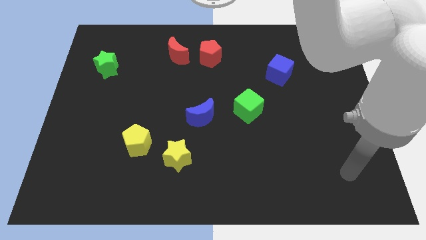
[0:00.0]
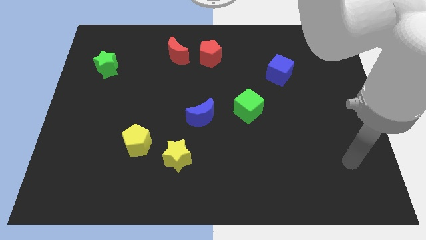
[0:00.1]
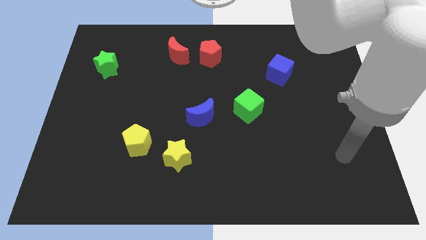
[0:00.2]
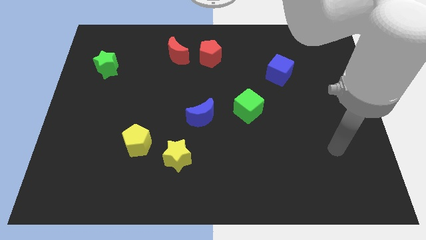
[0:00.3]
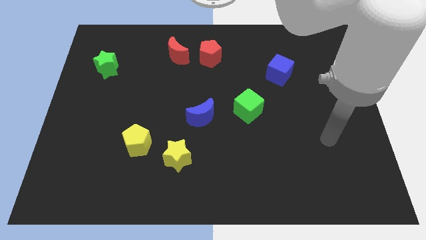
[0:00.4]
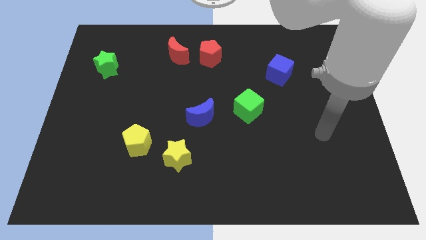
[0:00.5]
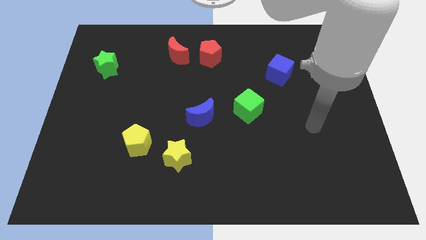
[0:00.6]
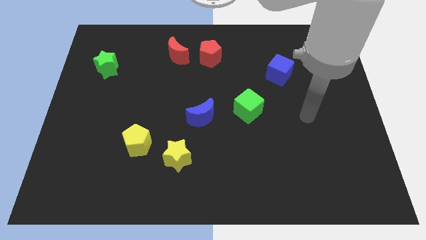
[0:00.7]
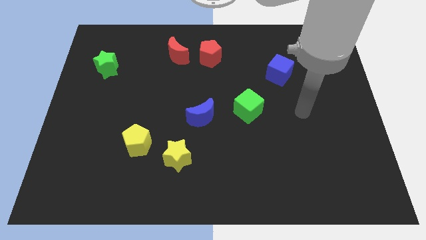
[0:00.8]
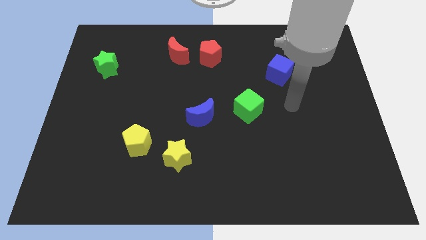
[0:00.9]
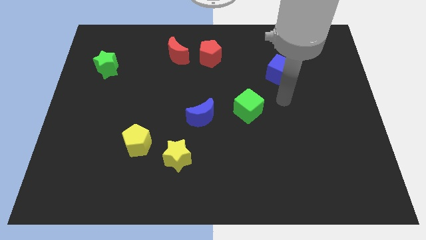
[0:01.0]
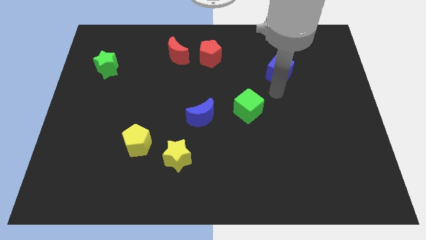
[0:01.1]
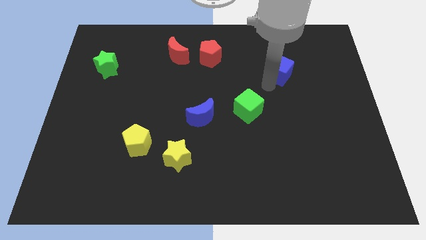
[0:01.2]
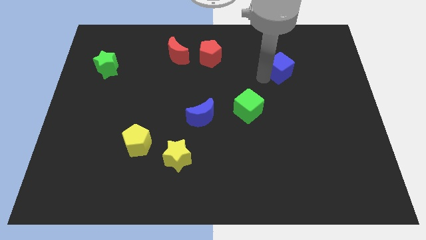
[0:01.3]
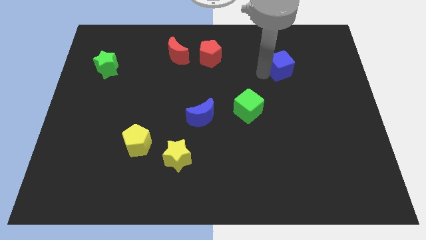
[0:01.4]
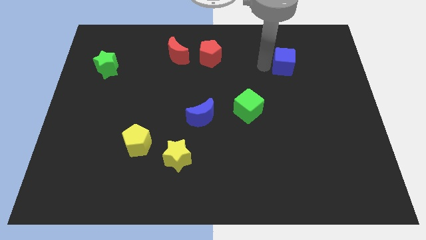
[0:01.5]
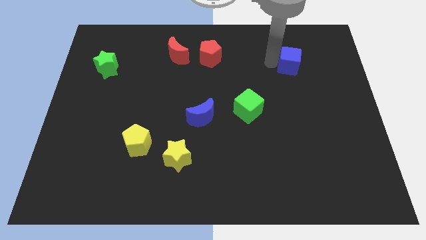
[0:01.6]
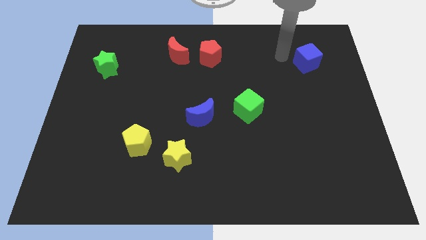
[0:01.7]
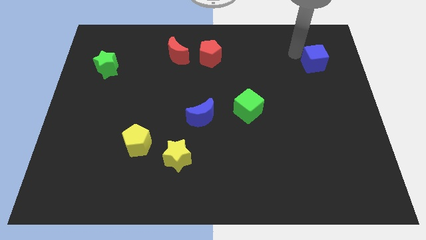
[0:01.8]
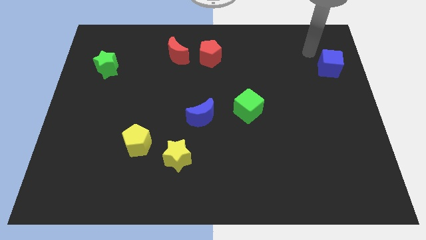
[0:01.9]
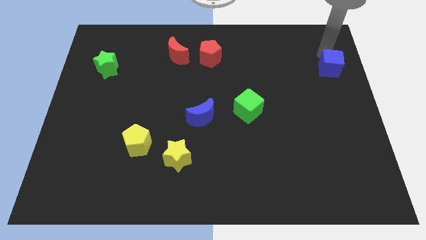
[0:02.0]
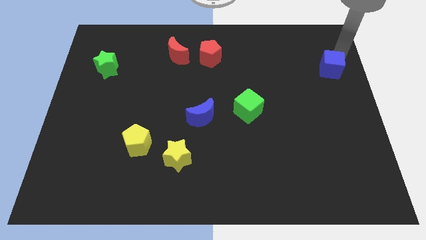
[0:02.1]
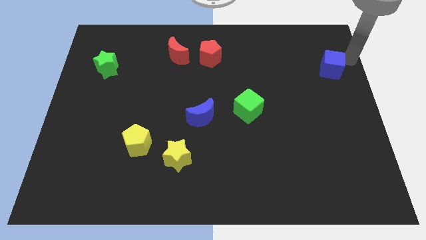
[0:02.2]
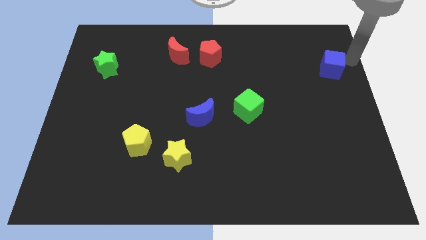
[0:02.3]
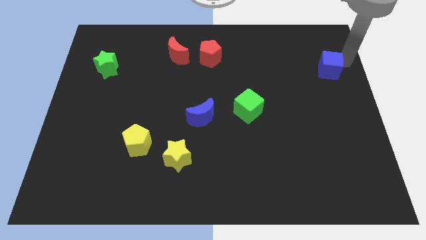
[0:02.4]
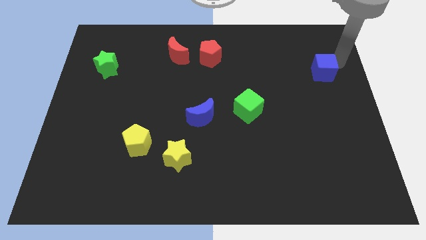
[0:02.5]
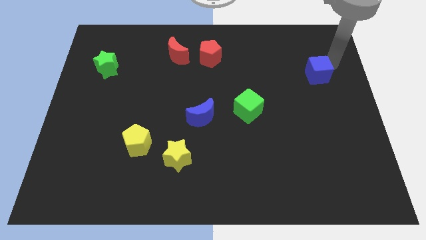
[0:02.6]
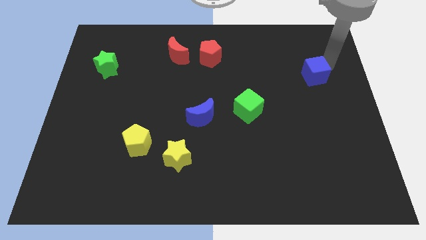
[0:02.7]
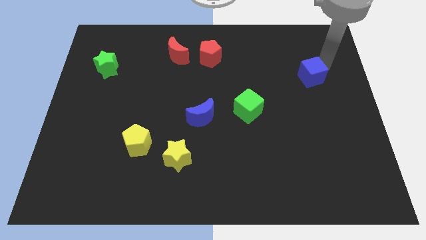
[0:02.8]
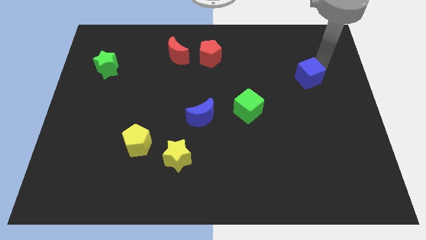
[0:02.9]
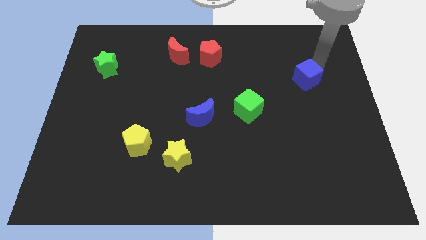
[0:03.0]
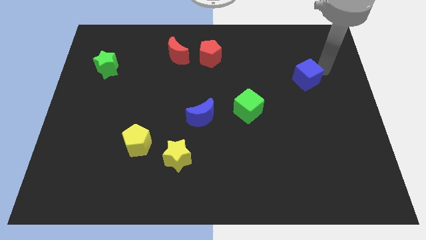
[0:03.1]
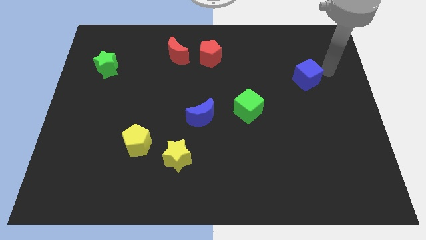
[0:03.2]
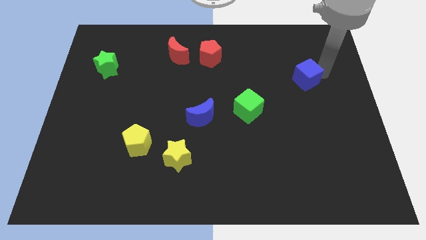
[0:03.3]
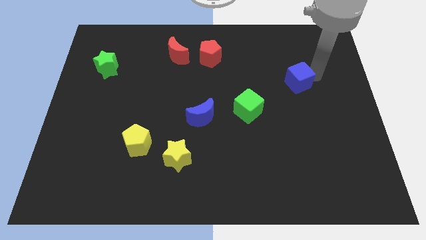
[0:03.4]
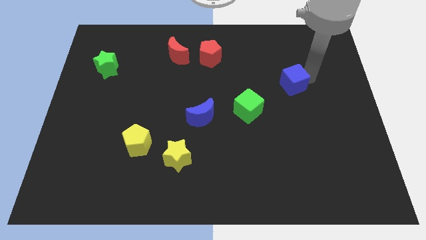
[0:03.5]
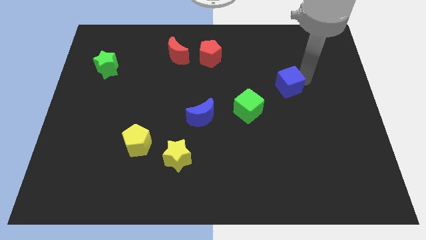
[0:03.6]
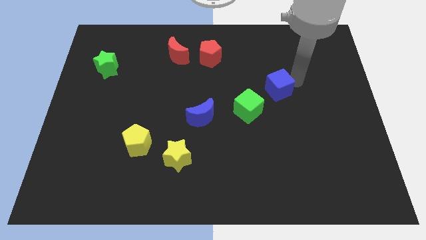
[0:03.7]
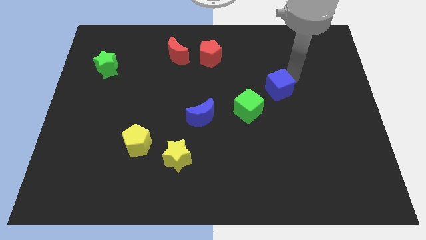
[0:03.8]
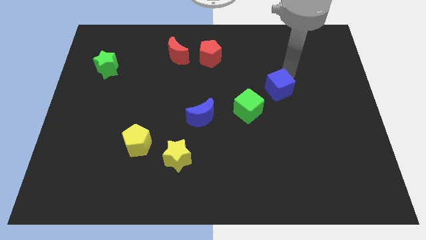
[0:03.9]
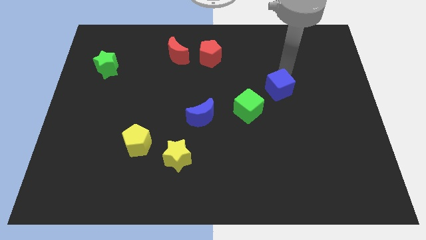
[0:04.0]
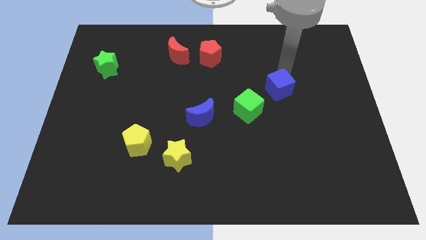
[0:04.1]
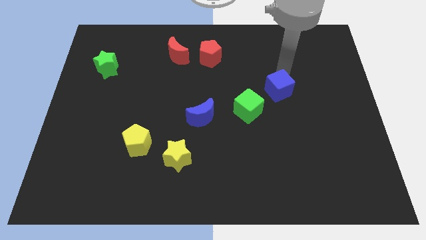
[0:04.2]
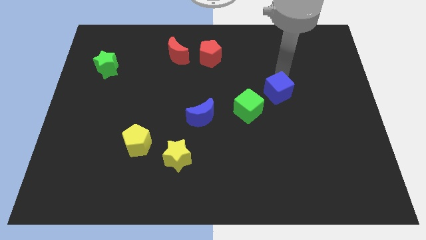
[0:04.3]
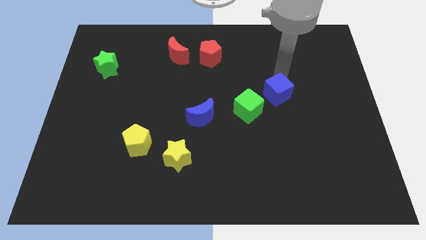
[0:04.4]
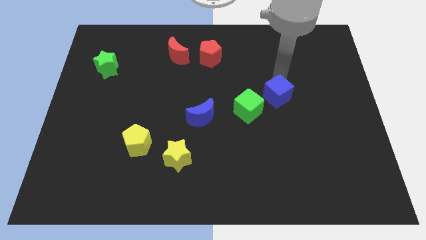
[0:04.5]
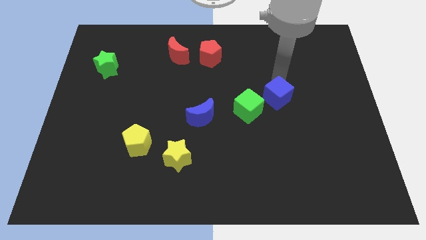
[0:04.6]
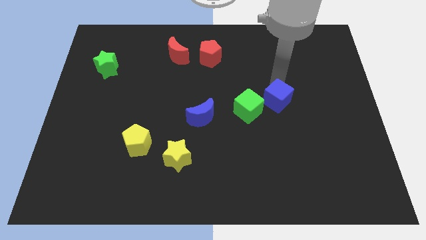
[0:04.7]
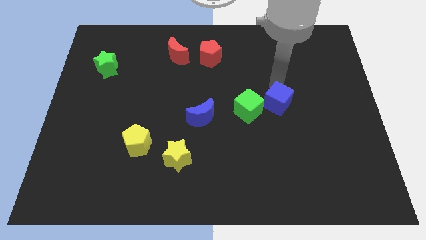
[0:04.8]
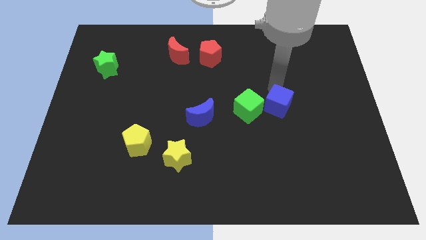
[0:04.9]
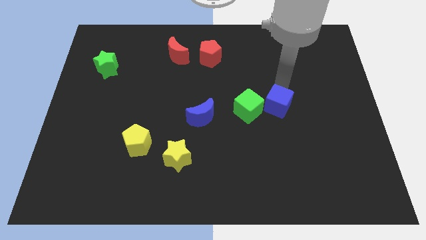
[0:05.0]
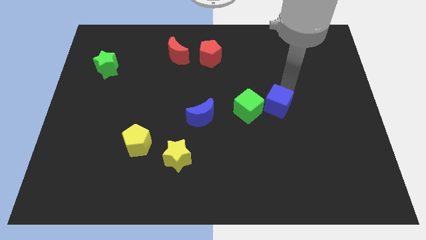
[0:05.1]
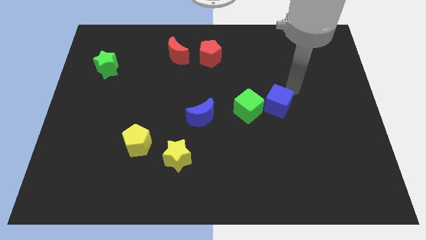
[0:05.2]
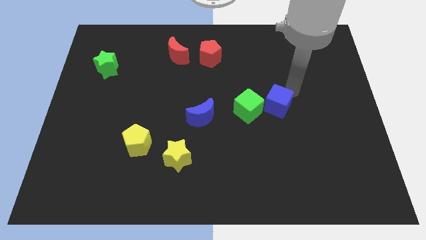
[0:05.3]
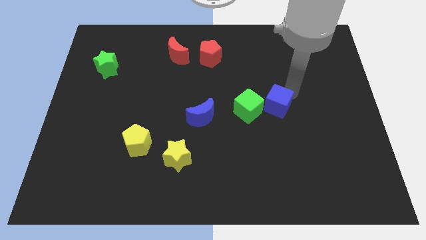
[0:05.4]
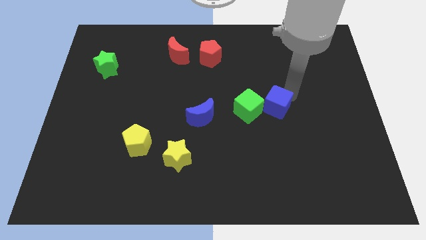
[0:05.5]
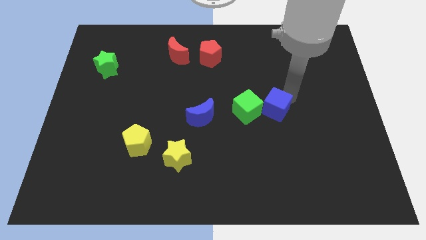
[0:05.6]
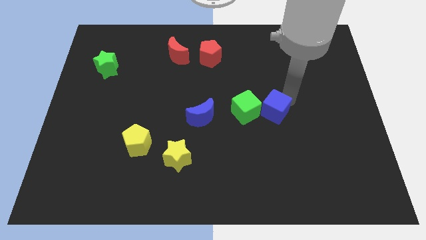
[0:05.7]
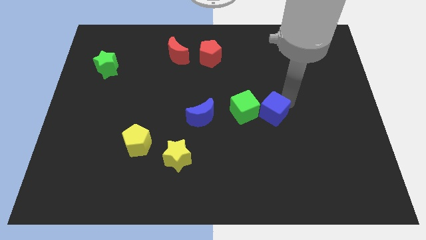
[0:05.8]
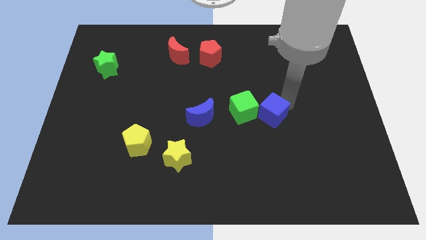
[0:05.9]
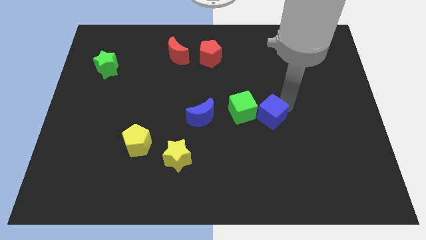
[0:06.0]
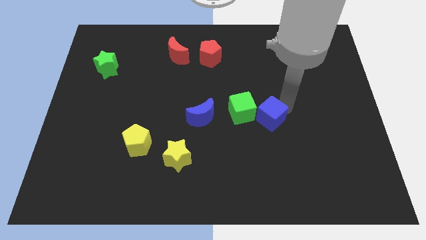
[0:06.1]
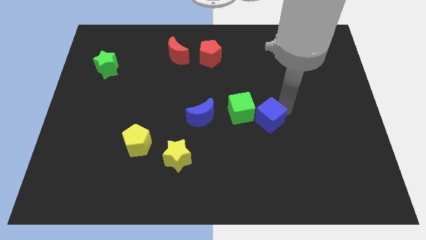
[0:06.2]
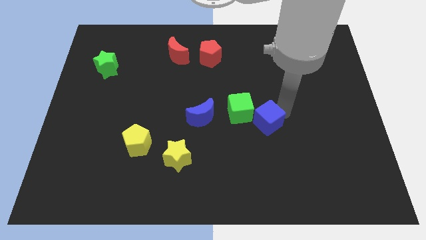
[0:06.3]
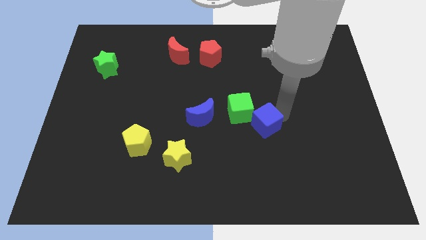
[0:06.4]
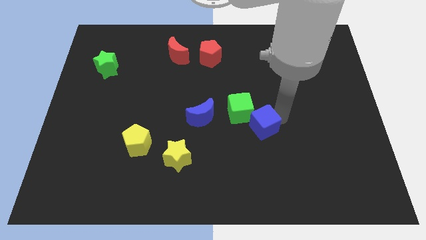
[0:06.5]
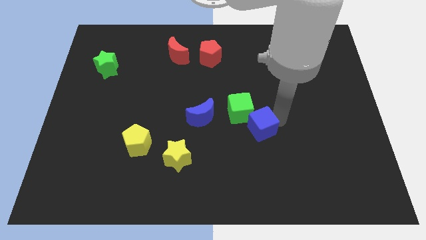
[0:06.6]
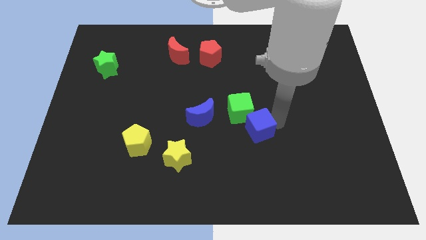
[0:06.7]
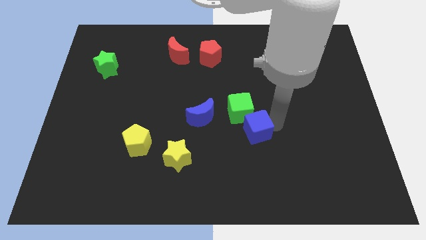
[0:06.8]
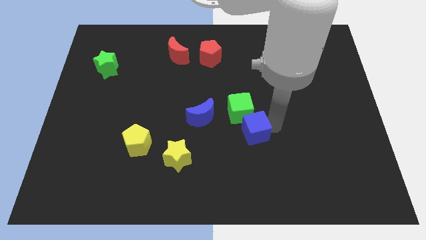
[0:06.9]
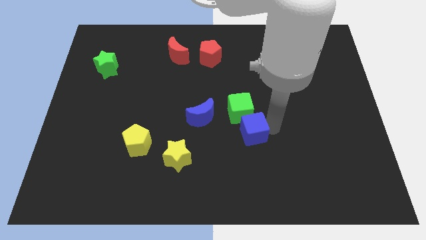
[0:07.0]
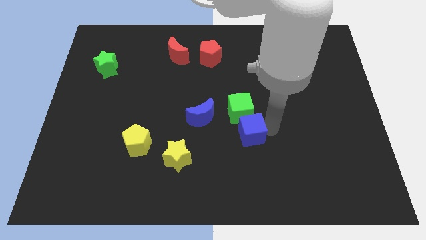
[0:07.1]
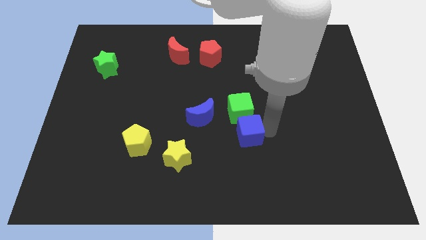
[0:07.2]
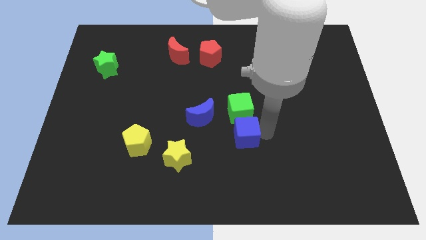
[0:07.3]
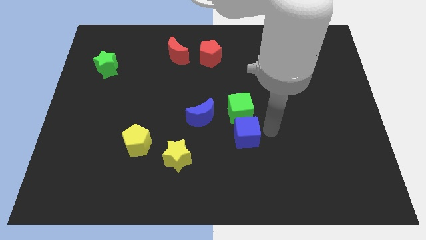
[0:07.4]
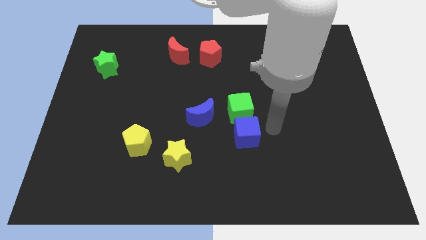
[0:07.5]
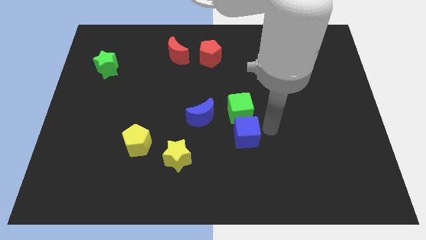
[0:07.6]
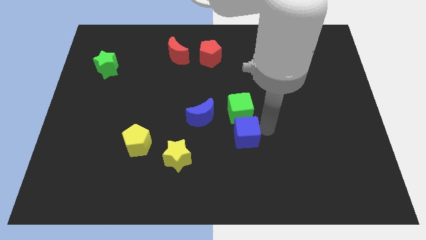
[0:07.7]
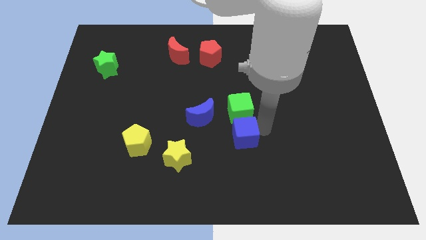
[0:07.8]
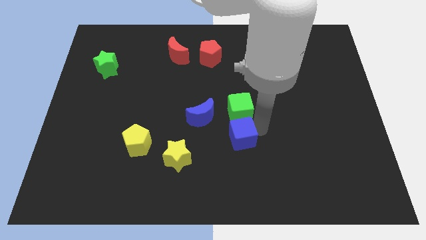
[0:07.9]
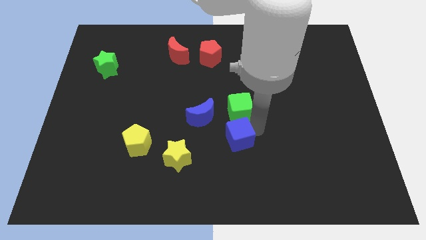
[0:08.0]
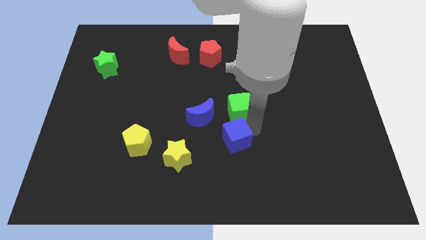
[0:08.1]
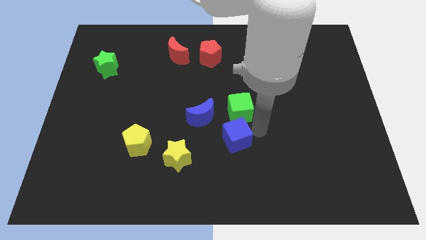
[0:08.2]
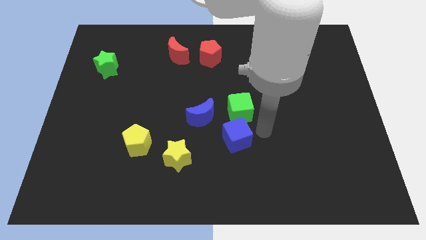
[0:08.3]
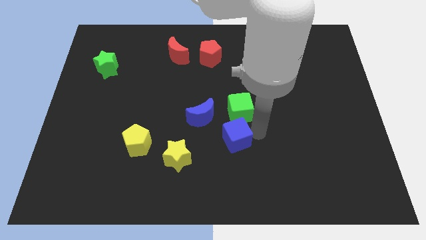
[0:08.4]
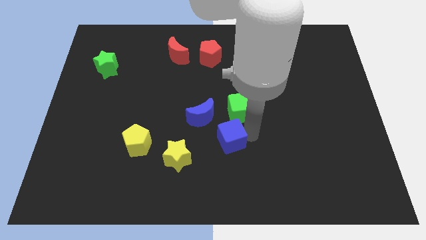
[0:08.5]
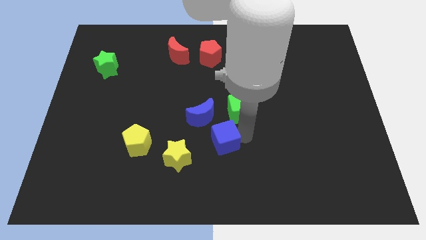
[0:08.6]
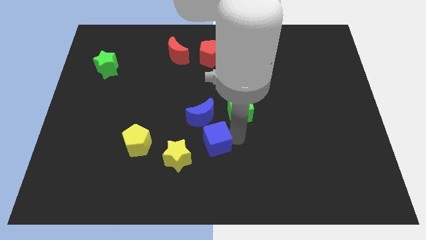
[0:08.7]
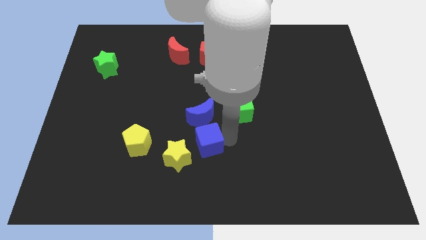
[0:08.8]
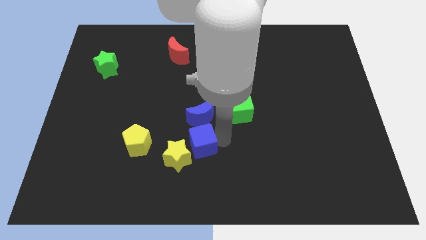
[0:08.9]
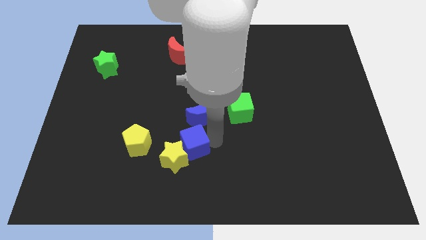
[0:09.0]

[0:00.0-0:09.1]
slide the blue cube close to the yellow star
